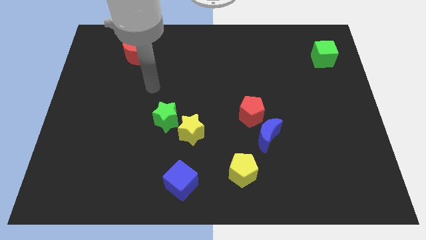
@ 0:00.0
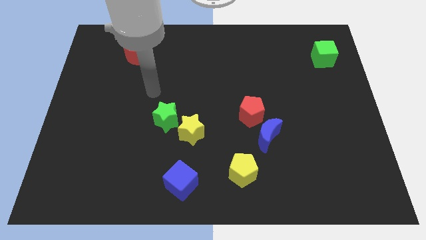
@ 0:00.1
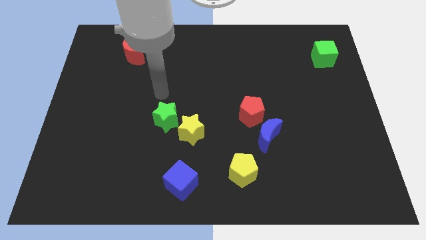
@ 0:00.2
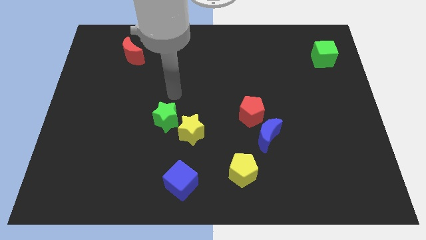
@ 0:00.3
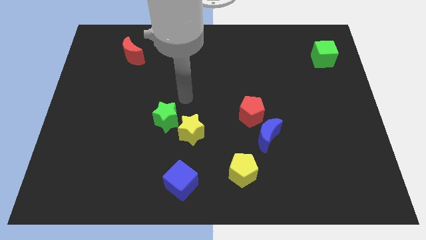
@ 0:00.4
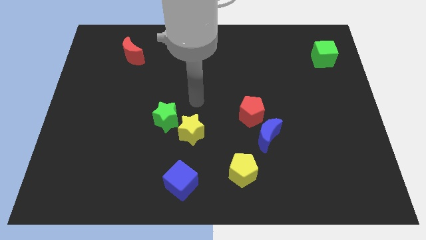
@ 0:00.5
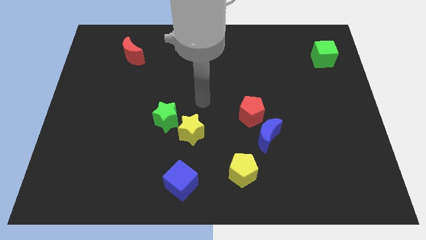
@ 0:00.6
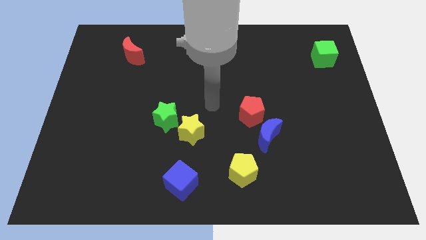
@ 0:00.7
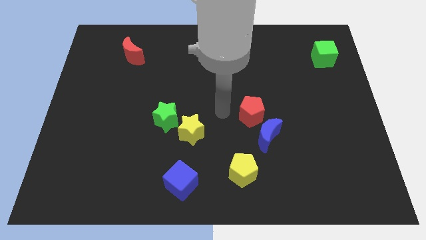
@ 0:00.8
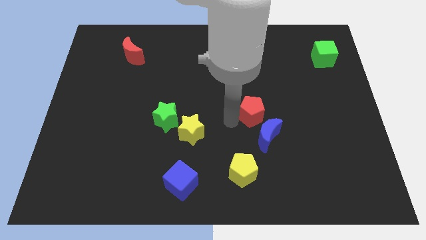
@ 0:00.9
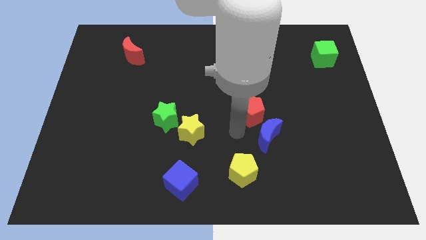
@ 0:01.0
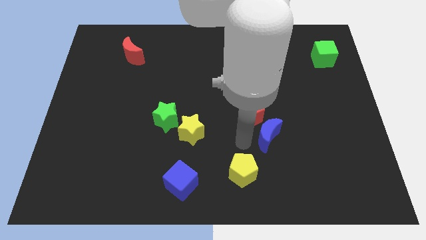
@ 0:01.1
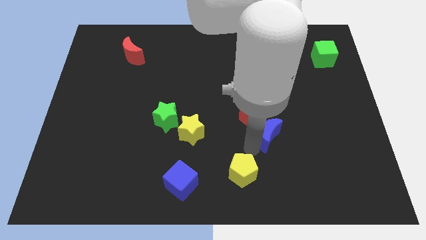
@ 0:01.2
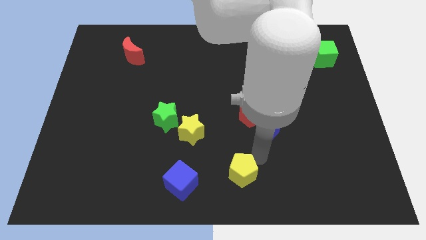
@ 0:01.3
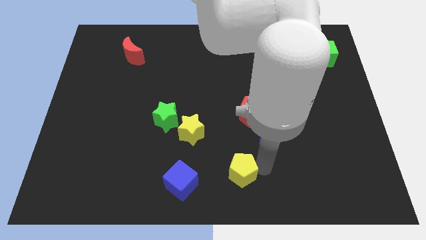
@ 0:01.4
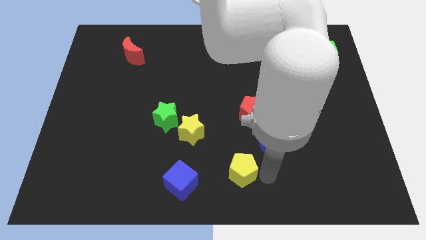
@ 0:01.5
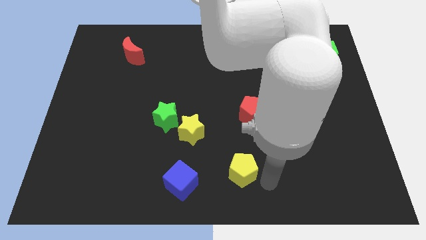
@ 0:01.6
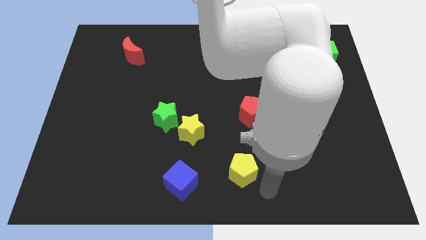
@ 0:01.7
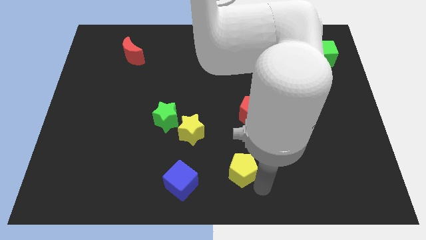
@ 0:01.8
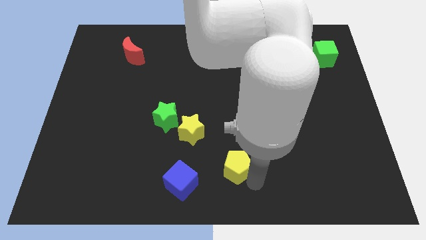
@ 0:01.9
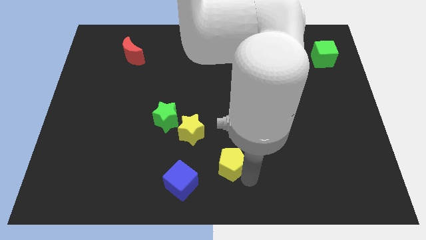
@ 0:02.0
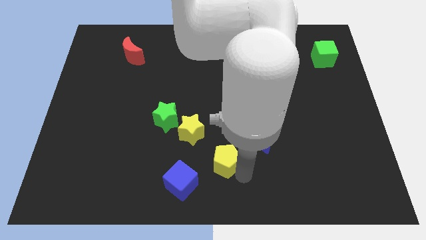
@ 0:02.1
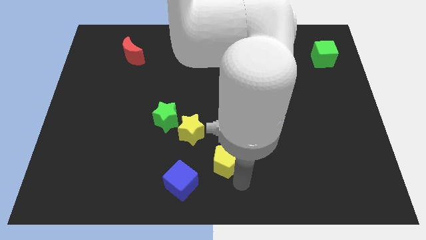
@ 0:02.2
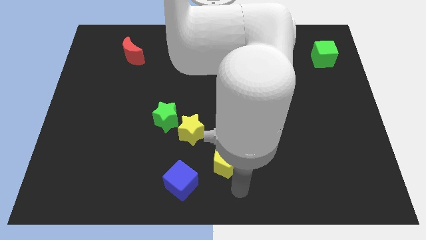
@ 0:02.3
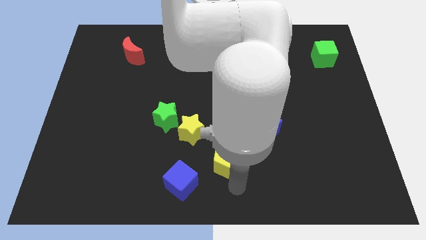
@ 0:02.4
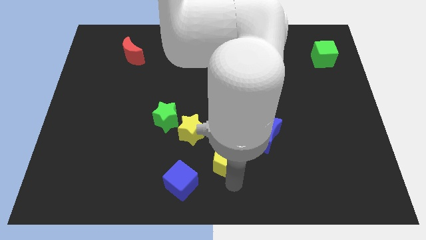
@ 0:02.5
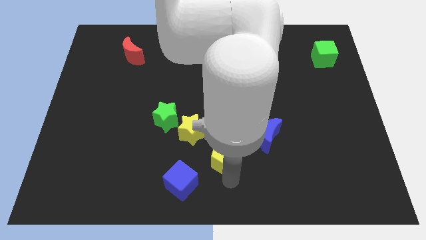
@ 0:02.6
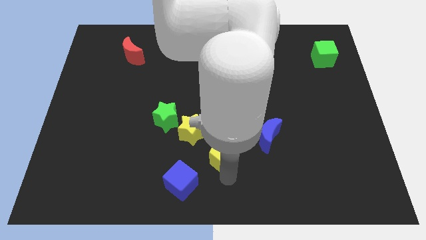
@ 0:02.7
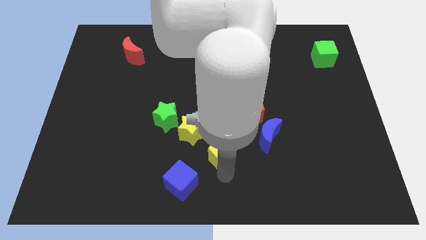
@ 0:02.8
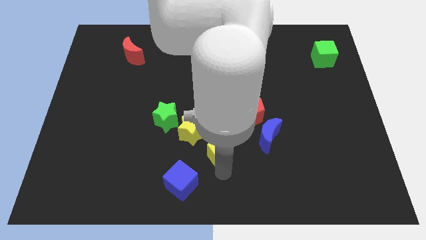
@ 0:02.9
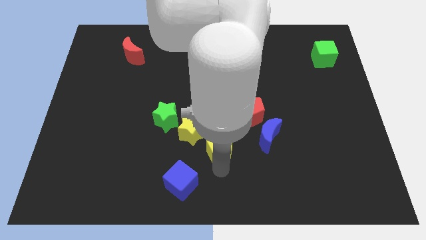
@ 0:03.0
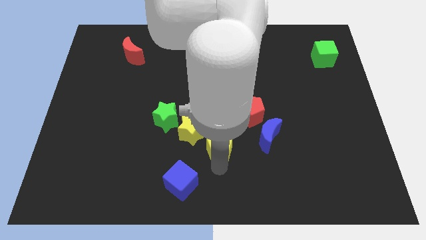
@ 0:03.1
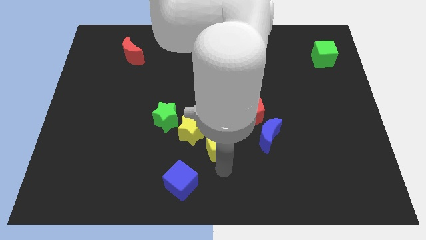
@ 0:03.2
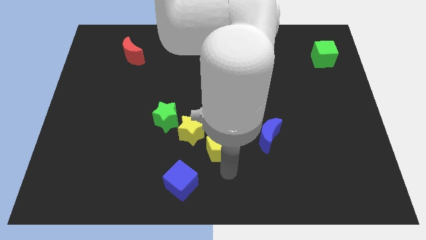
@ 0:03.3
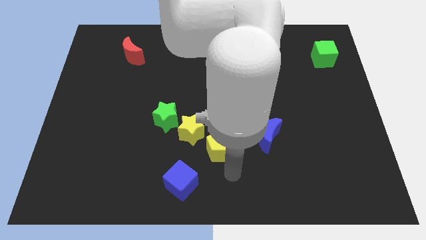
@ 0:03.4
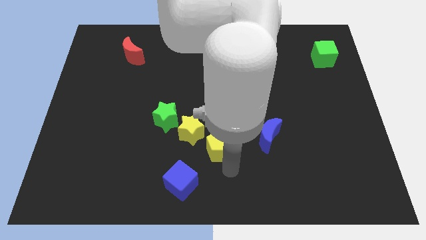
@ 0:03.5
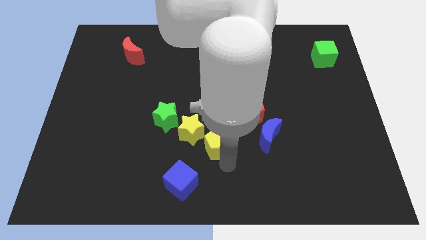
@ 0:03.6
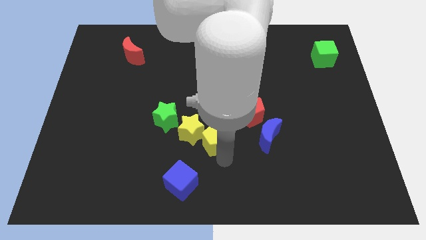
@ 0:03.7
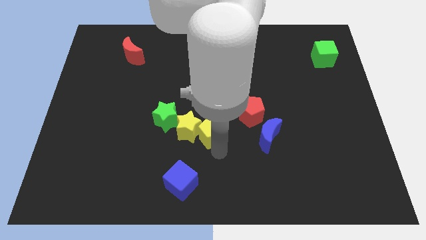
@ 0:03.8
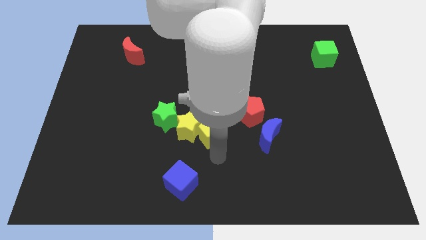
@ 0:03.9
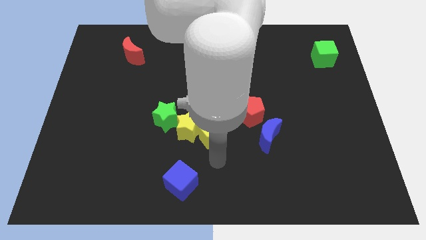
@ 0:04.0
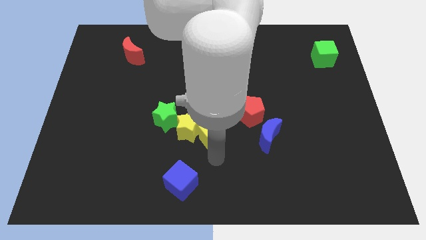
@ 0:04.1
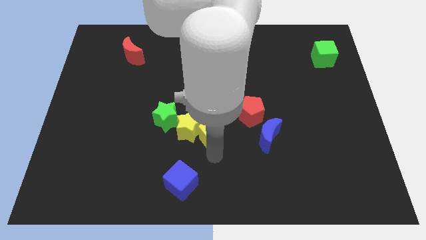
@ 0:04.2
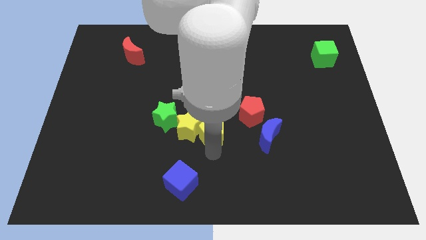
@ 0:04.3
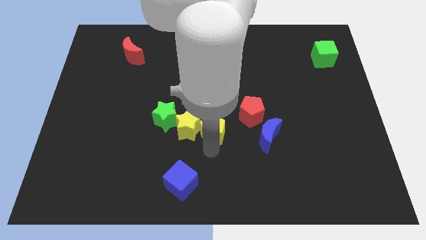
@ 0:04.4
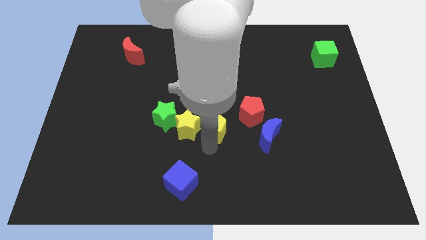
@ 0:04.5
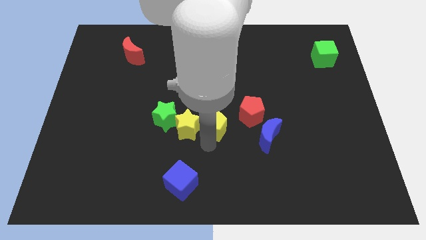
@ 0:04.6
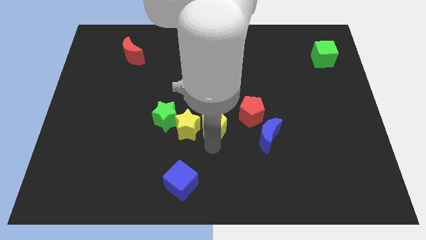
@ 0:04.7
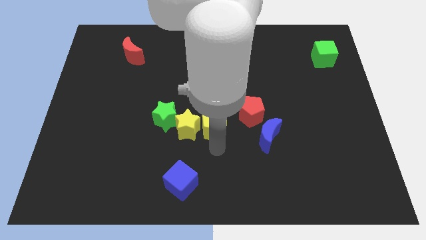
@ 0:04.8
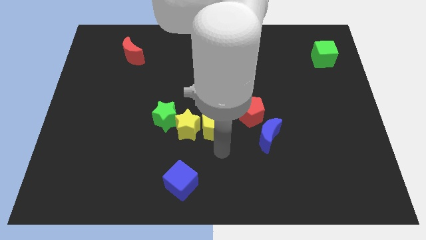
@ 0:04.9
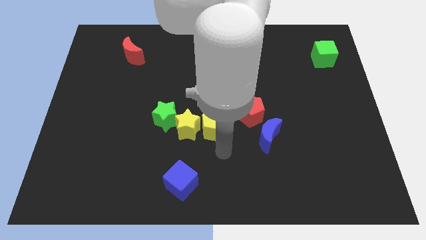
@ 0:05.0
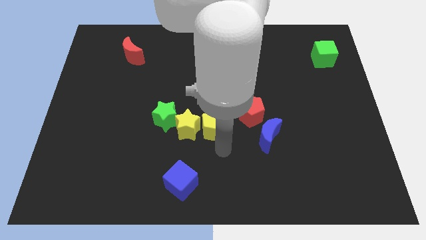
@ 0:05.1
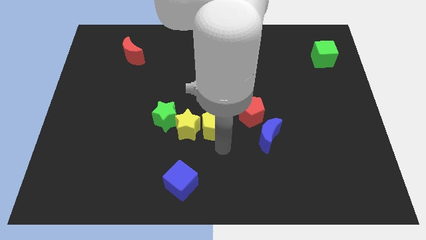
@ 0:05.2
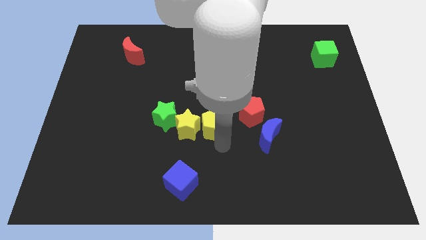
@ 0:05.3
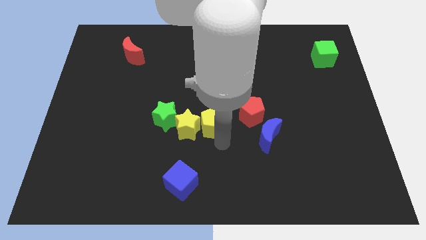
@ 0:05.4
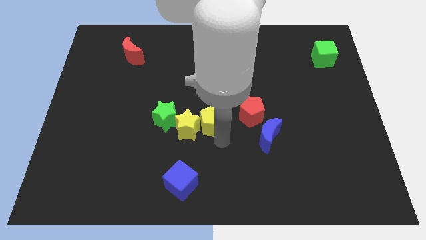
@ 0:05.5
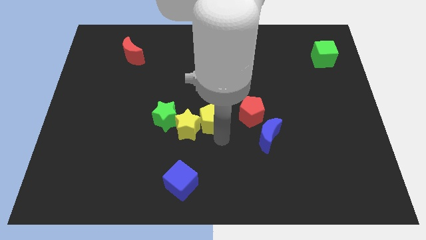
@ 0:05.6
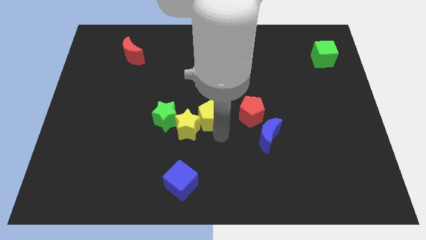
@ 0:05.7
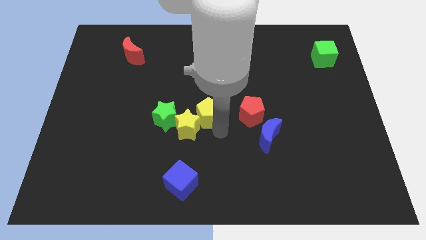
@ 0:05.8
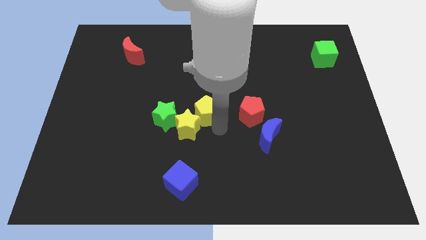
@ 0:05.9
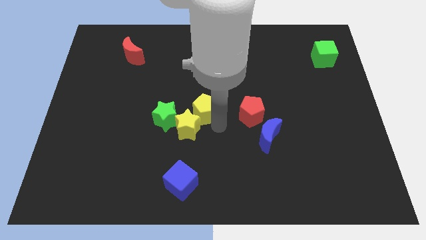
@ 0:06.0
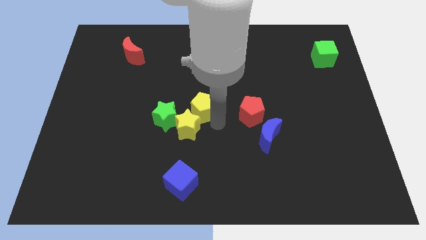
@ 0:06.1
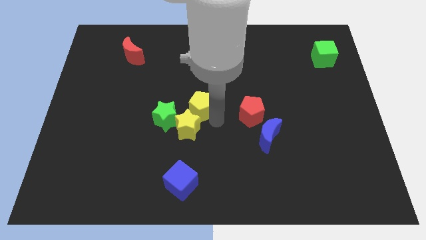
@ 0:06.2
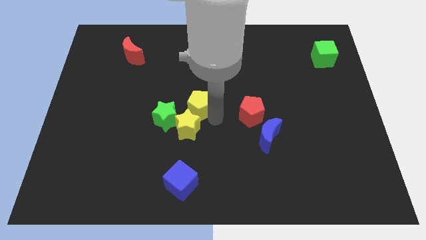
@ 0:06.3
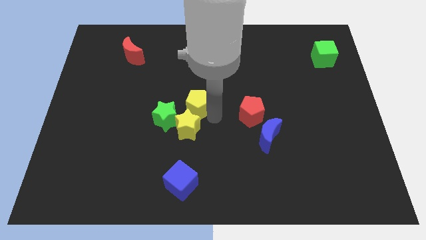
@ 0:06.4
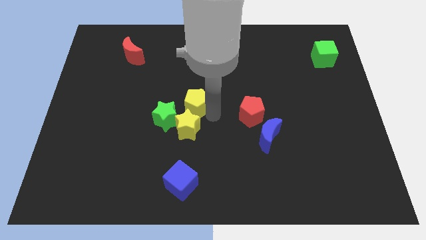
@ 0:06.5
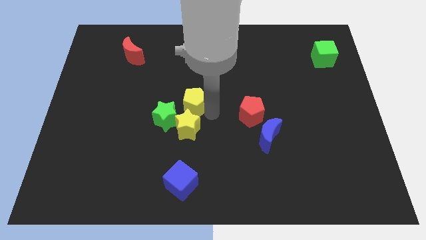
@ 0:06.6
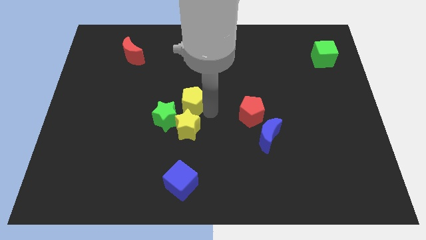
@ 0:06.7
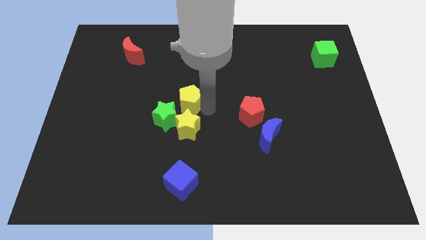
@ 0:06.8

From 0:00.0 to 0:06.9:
push the yellow pentagon up and then left

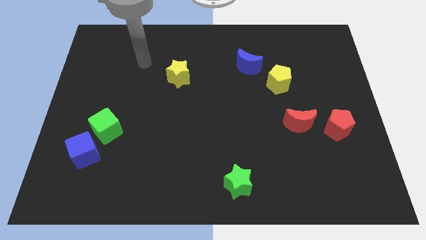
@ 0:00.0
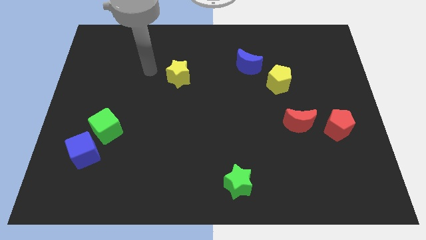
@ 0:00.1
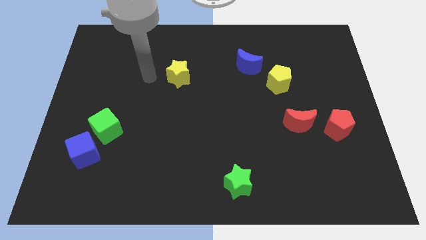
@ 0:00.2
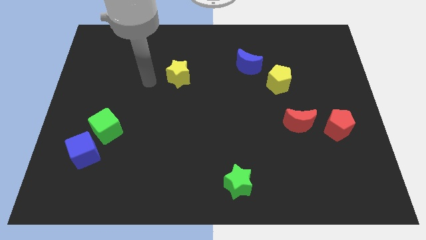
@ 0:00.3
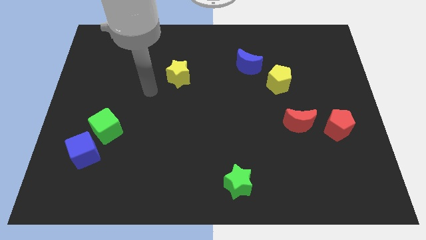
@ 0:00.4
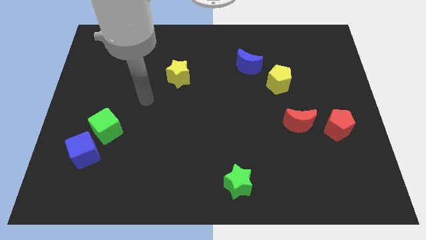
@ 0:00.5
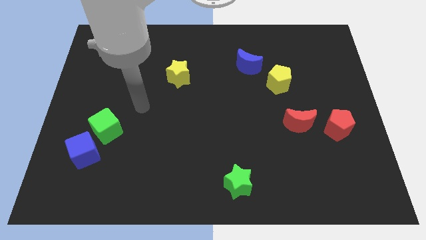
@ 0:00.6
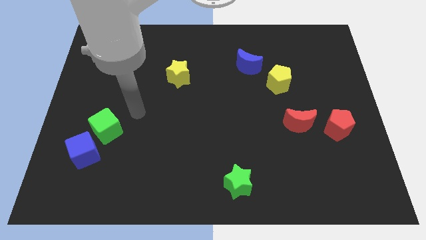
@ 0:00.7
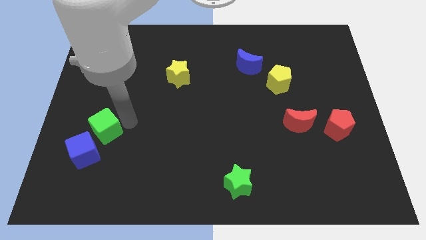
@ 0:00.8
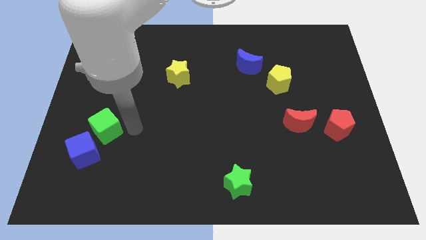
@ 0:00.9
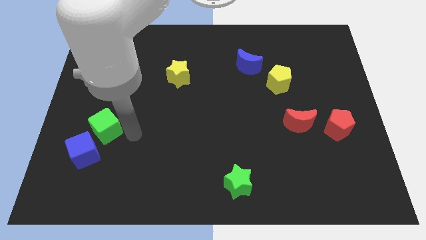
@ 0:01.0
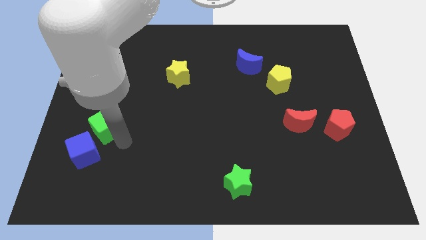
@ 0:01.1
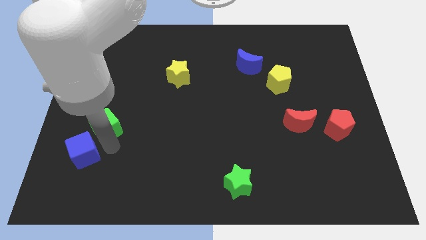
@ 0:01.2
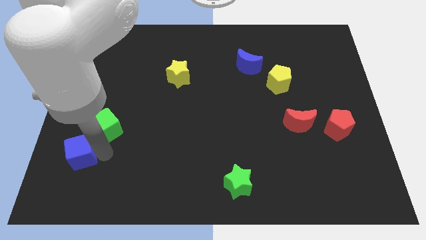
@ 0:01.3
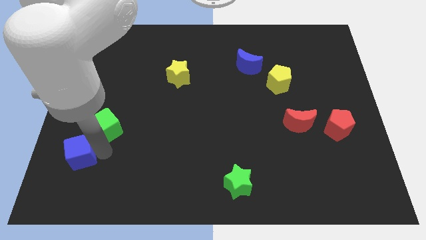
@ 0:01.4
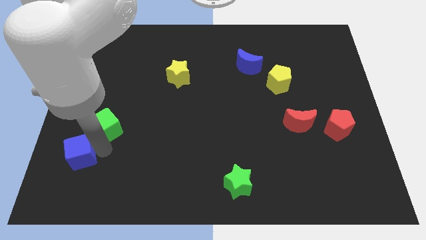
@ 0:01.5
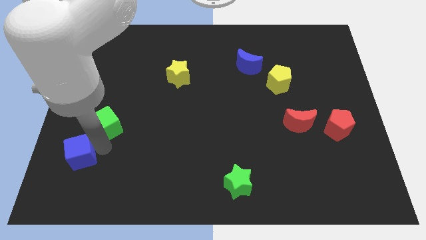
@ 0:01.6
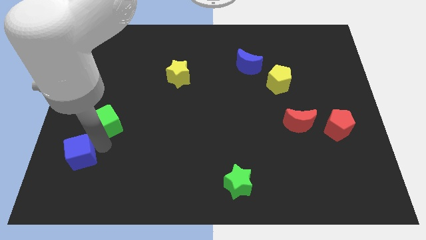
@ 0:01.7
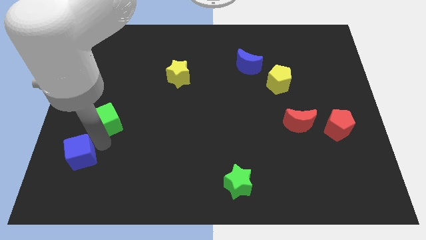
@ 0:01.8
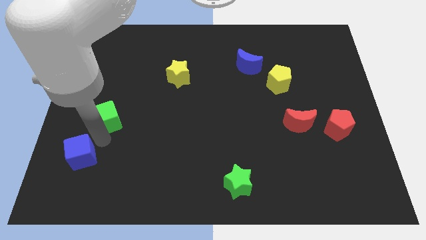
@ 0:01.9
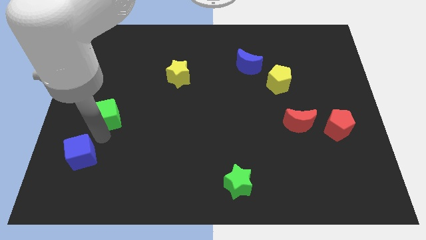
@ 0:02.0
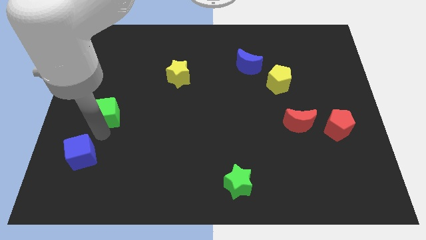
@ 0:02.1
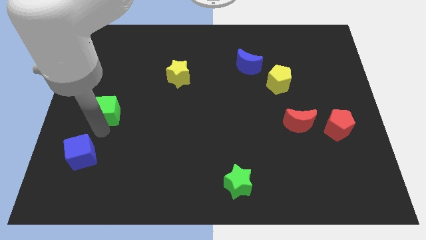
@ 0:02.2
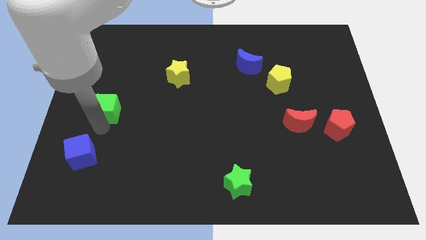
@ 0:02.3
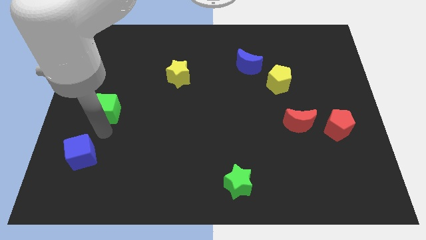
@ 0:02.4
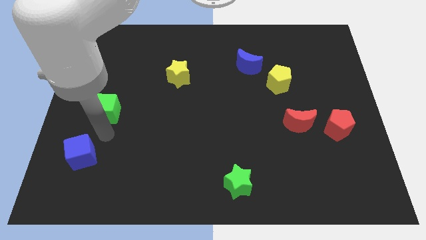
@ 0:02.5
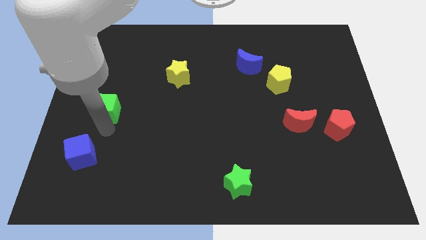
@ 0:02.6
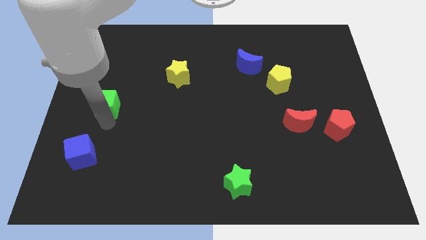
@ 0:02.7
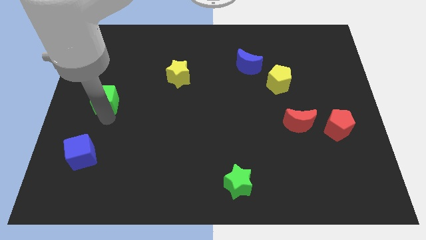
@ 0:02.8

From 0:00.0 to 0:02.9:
slightly push the green cube upwards
